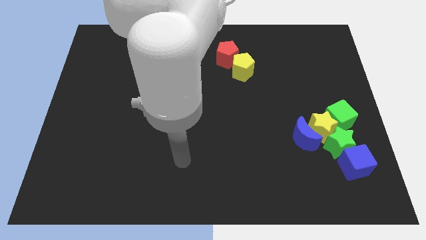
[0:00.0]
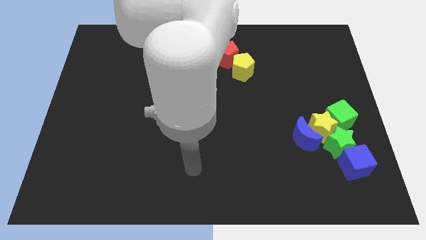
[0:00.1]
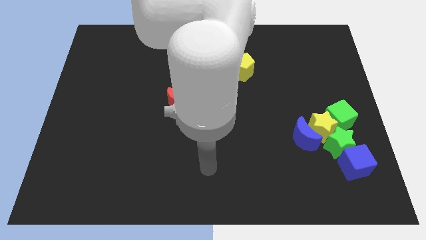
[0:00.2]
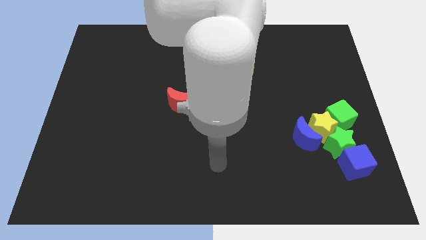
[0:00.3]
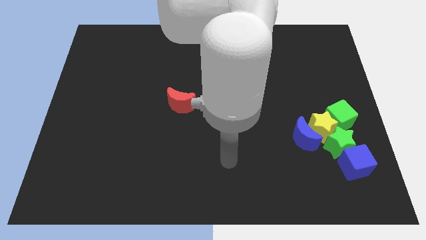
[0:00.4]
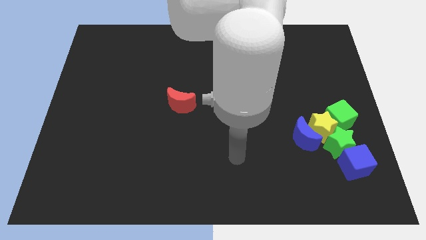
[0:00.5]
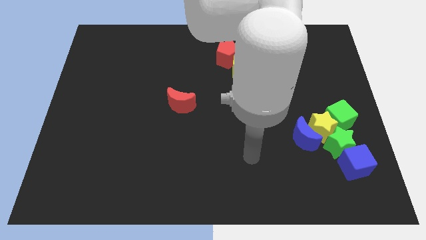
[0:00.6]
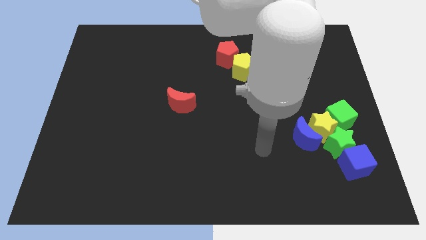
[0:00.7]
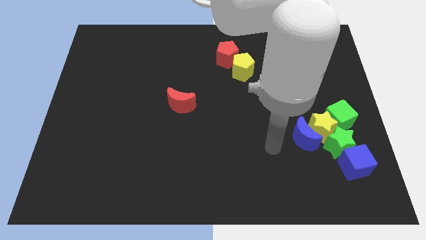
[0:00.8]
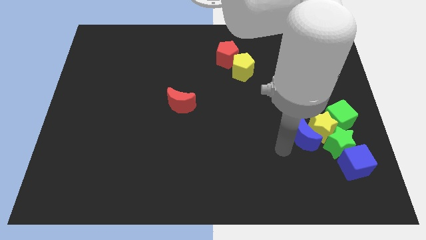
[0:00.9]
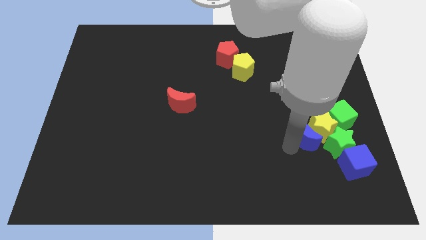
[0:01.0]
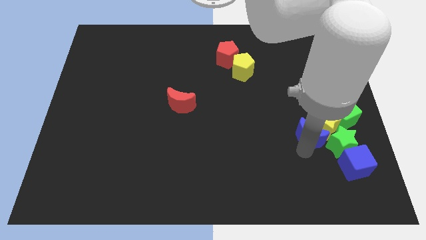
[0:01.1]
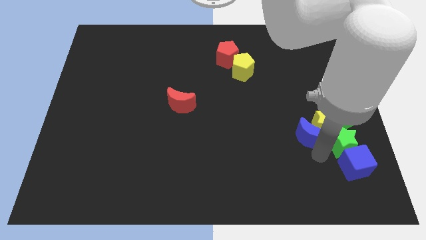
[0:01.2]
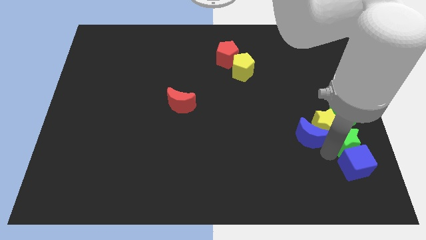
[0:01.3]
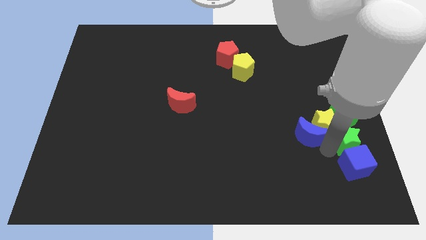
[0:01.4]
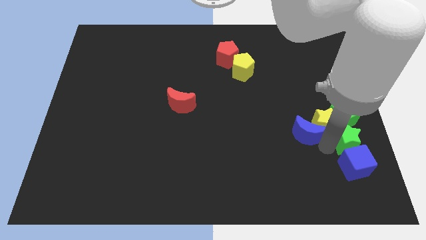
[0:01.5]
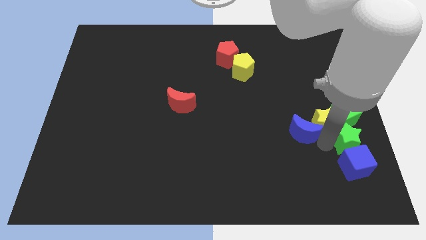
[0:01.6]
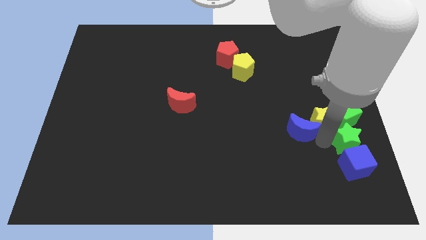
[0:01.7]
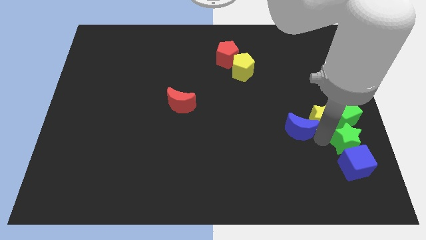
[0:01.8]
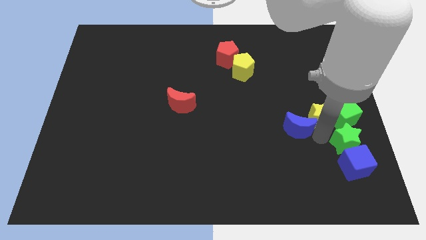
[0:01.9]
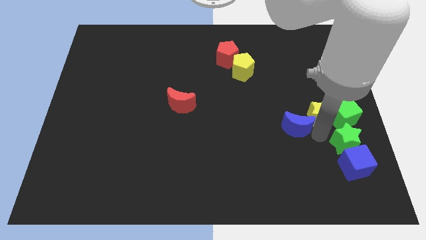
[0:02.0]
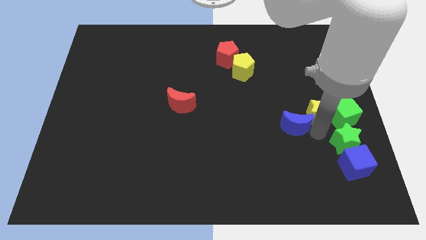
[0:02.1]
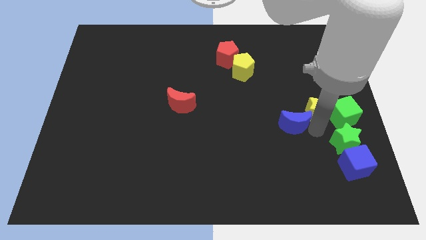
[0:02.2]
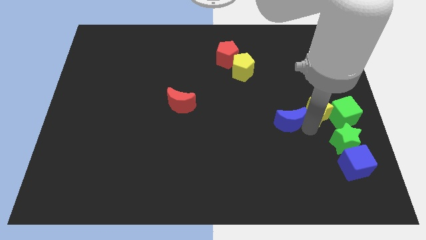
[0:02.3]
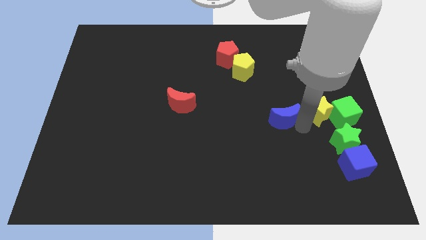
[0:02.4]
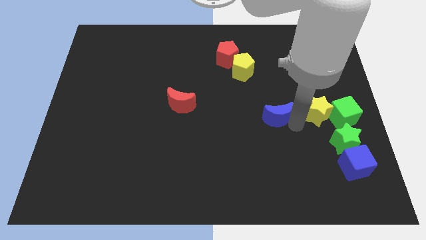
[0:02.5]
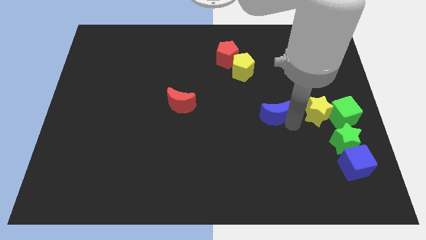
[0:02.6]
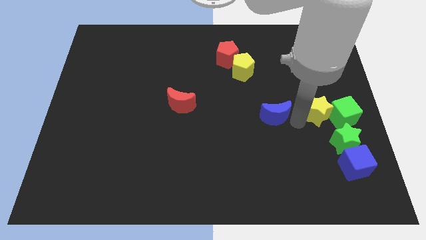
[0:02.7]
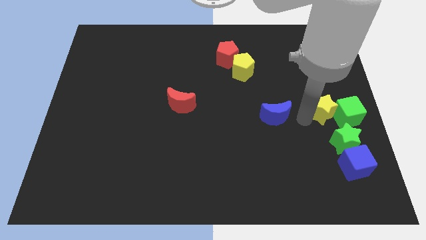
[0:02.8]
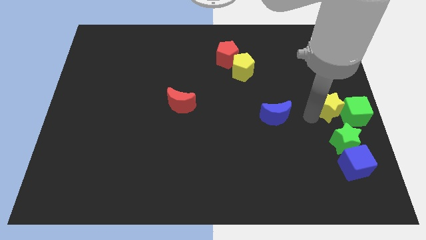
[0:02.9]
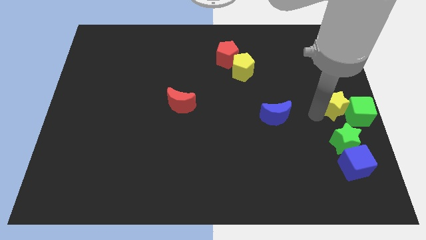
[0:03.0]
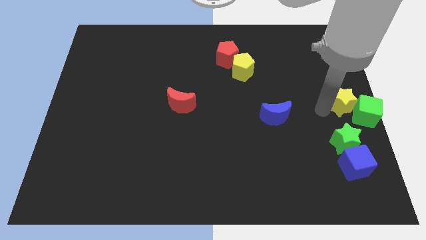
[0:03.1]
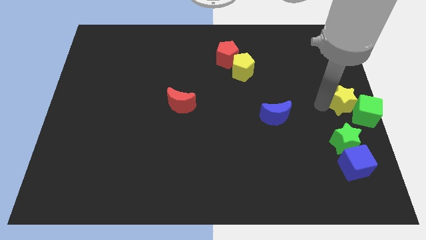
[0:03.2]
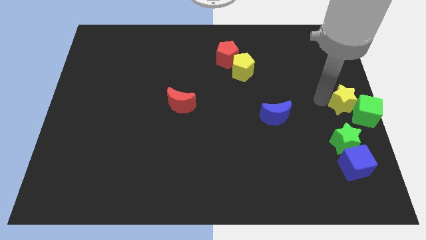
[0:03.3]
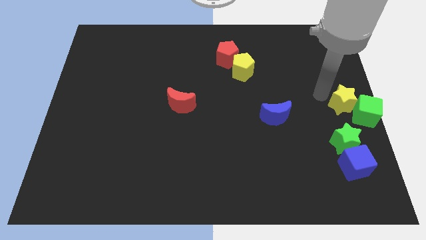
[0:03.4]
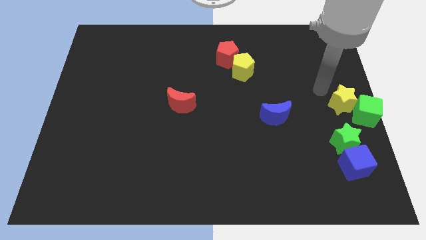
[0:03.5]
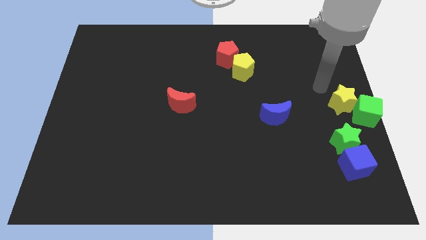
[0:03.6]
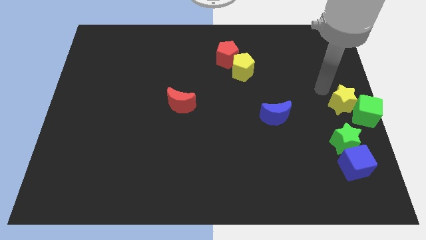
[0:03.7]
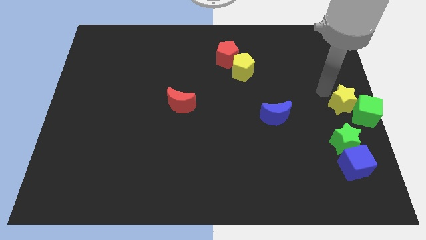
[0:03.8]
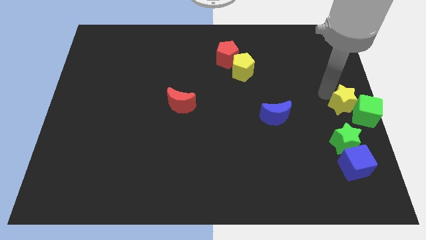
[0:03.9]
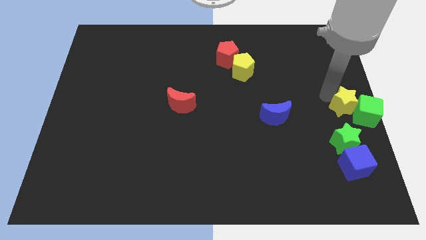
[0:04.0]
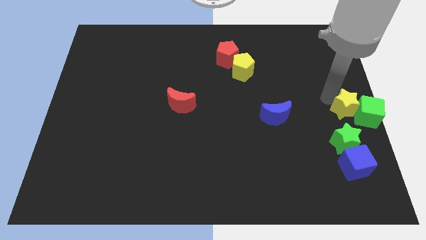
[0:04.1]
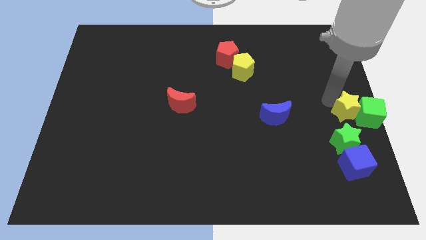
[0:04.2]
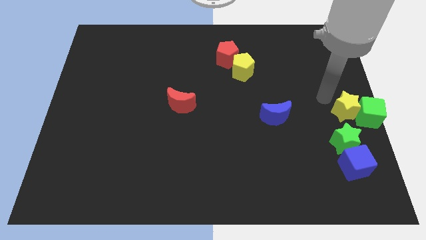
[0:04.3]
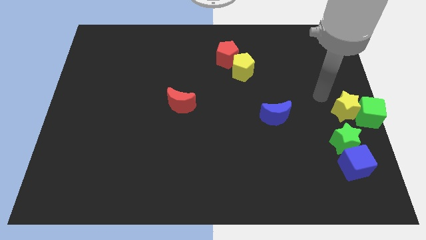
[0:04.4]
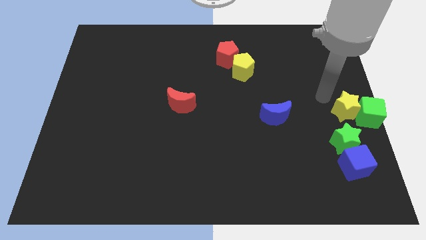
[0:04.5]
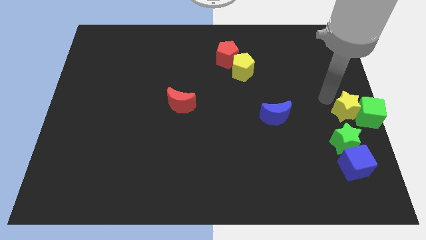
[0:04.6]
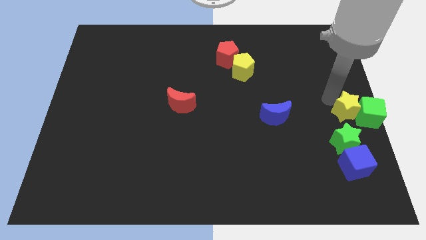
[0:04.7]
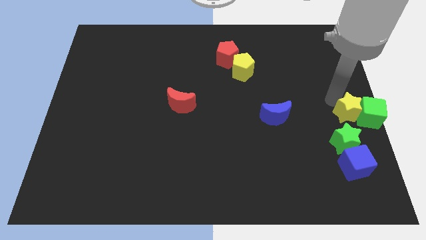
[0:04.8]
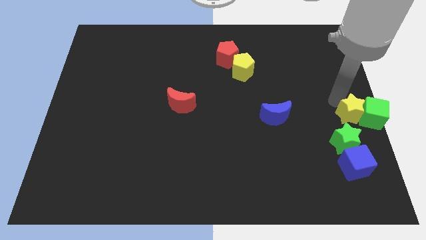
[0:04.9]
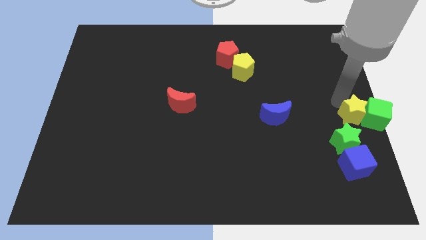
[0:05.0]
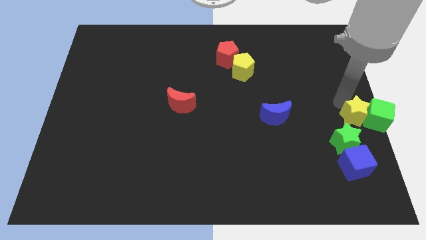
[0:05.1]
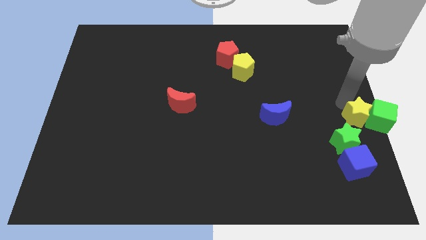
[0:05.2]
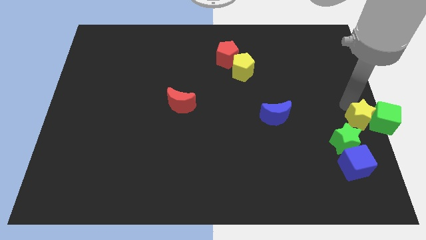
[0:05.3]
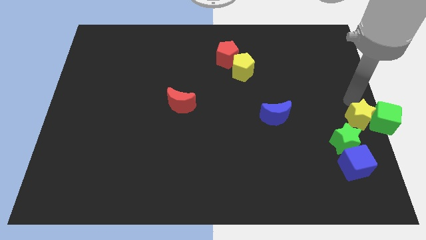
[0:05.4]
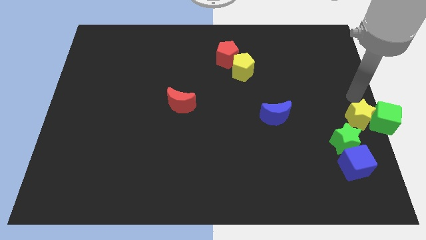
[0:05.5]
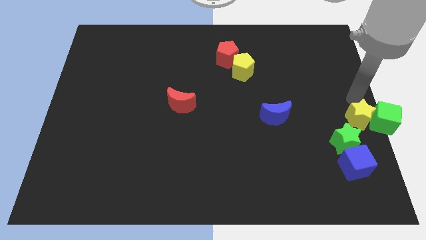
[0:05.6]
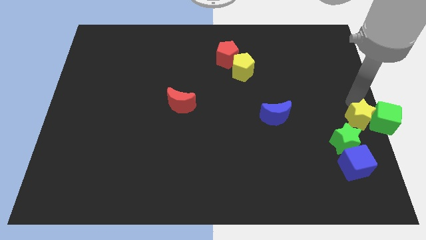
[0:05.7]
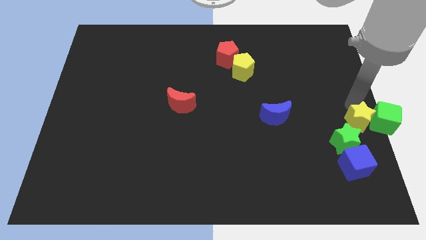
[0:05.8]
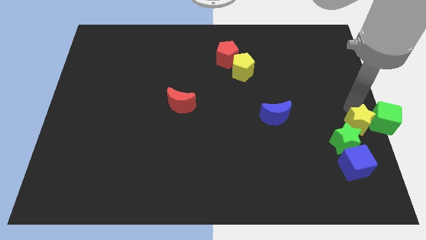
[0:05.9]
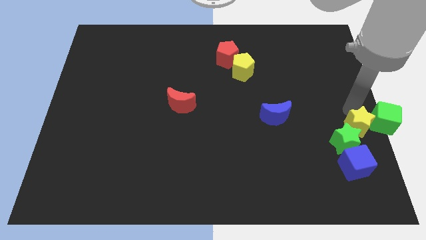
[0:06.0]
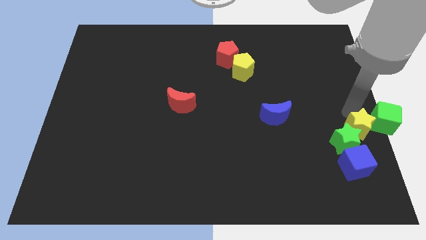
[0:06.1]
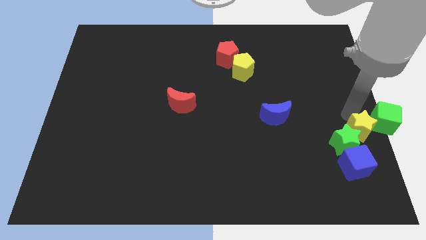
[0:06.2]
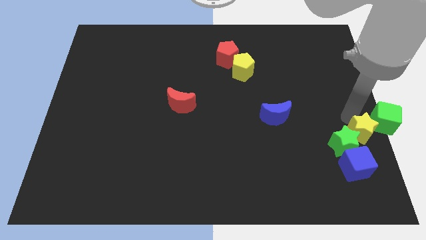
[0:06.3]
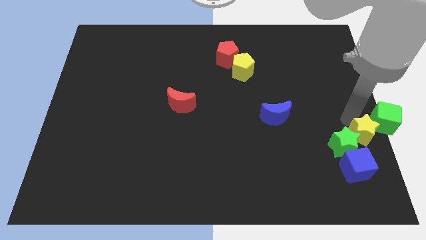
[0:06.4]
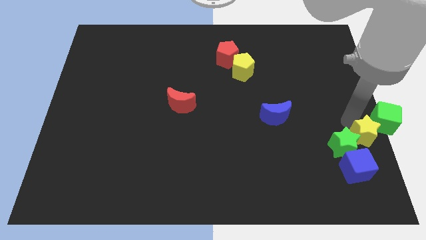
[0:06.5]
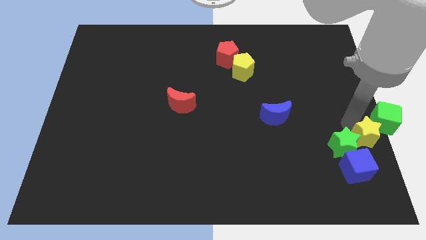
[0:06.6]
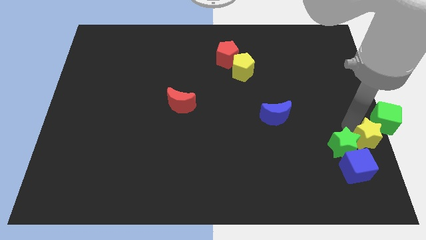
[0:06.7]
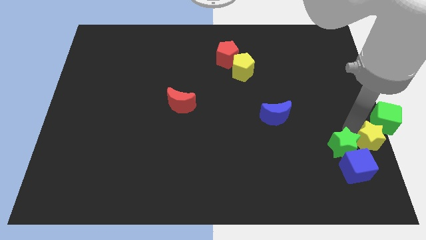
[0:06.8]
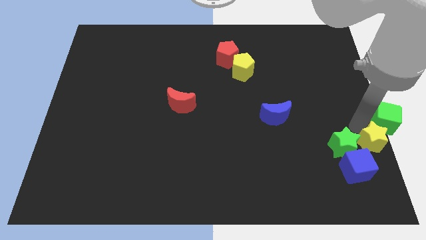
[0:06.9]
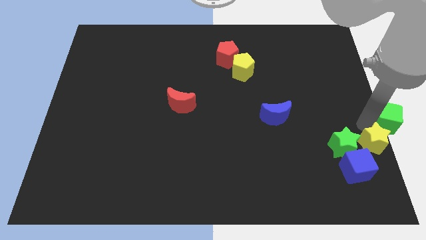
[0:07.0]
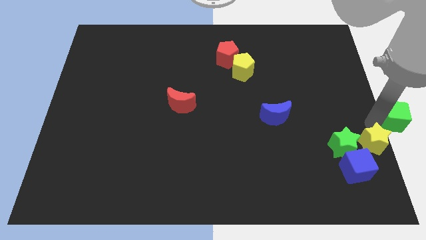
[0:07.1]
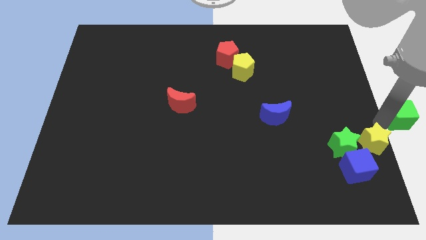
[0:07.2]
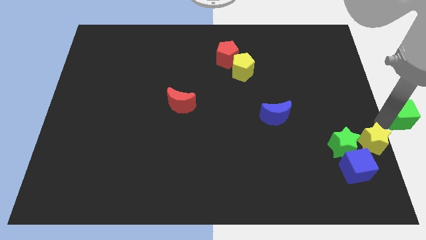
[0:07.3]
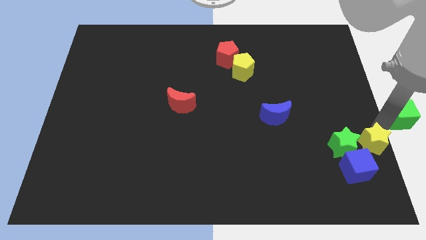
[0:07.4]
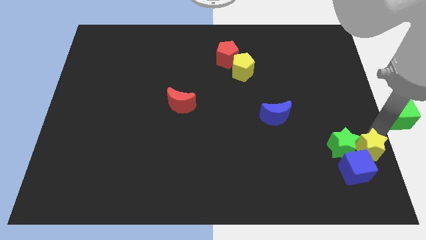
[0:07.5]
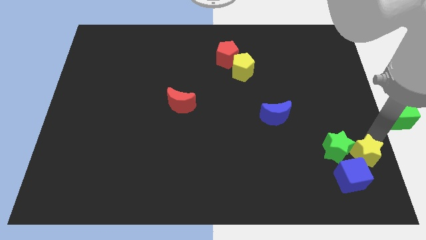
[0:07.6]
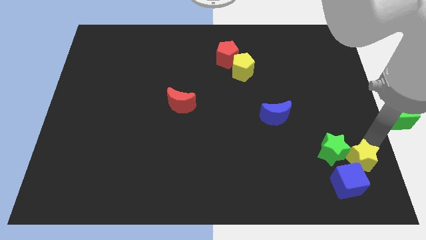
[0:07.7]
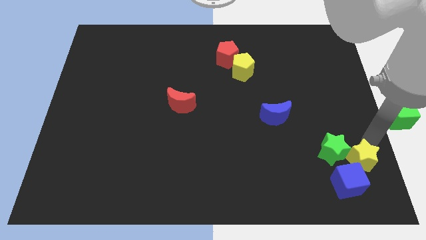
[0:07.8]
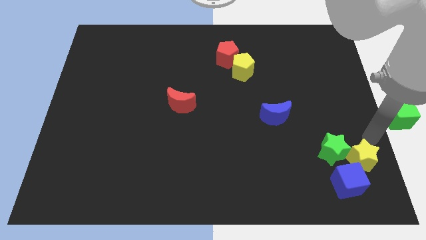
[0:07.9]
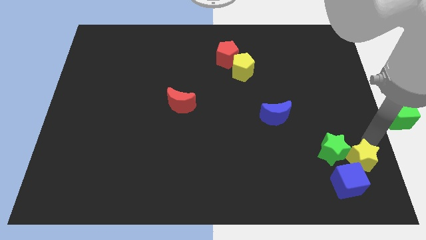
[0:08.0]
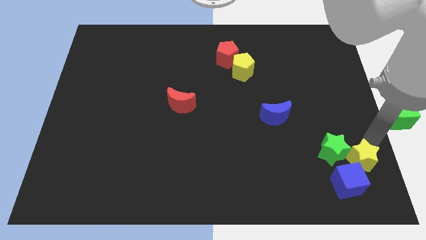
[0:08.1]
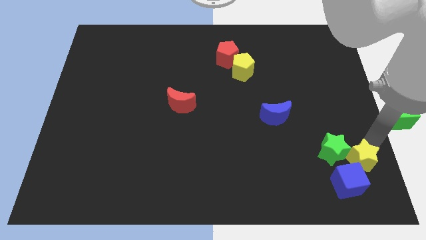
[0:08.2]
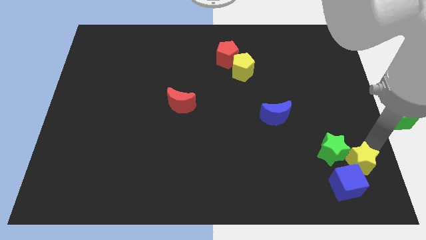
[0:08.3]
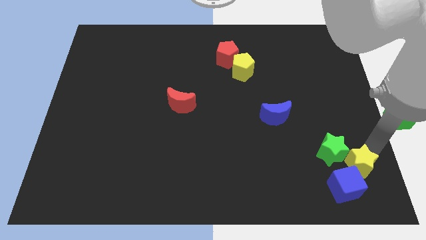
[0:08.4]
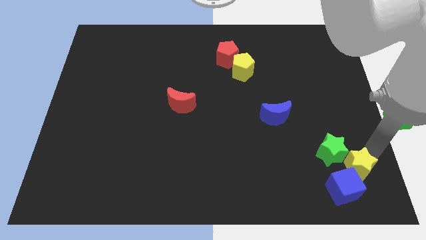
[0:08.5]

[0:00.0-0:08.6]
push the yellow star towards the blue cube
